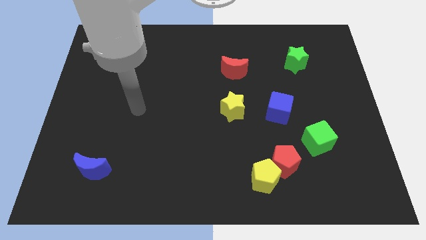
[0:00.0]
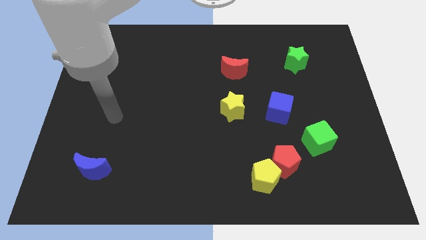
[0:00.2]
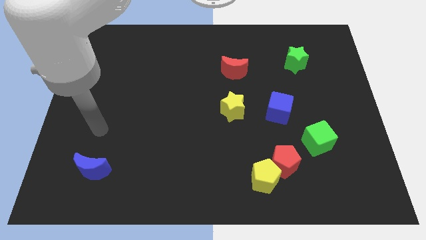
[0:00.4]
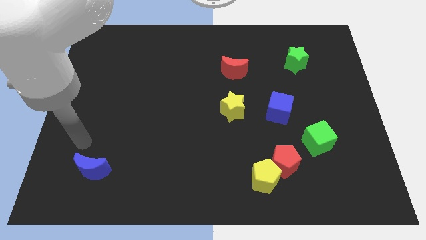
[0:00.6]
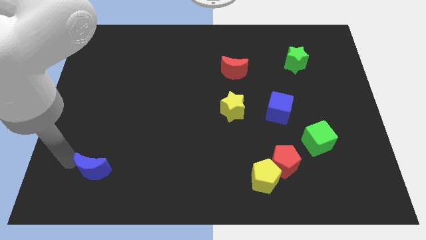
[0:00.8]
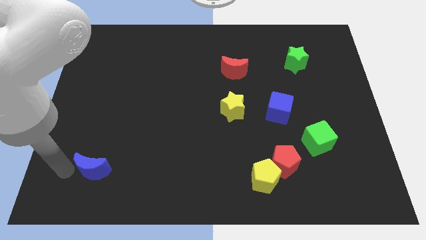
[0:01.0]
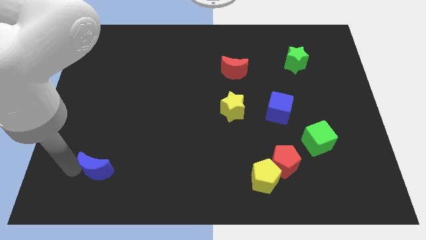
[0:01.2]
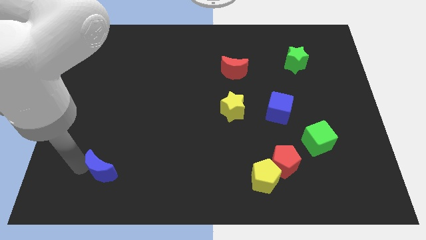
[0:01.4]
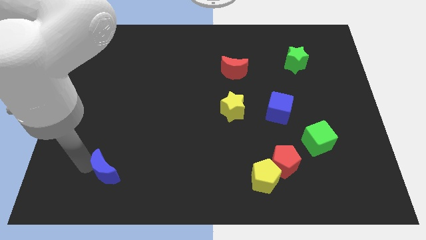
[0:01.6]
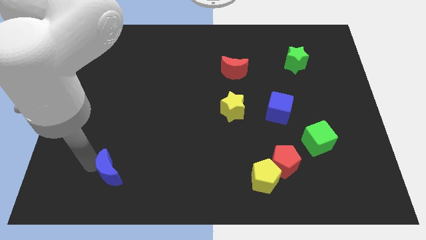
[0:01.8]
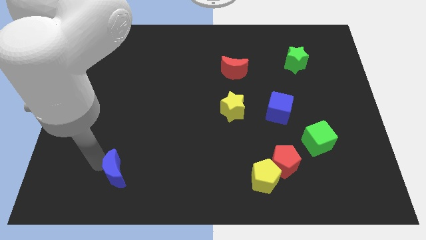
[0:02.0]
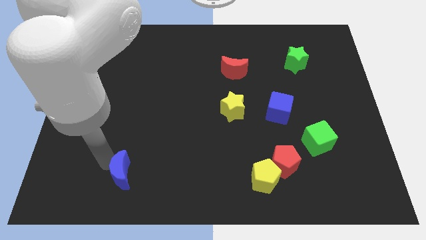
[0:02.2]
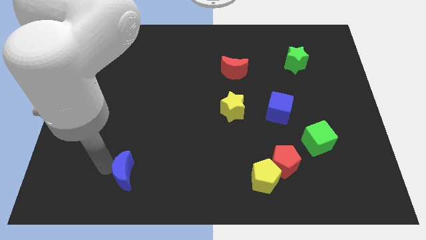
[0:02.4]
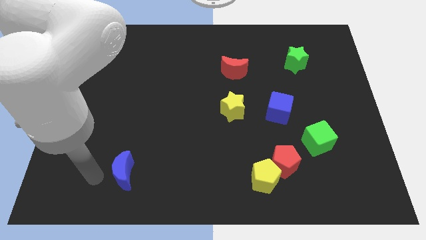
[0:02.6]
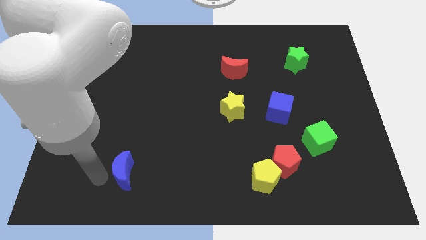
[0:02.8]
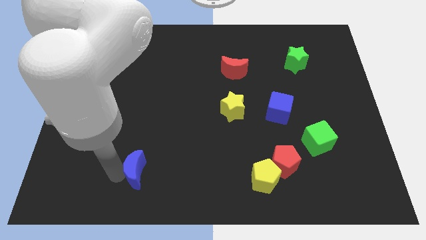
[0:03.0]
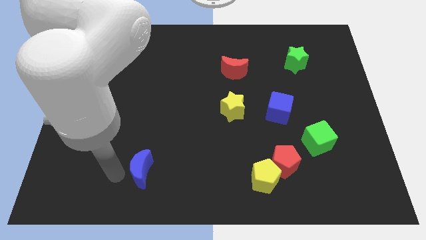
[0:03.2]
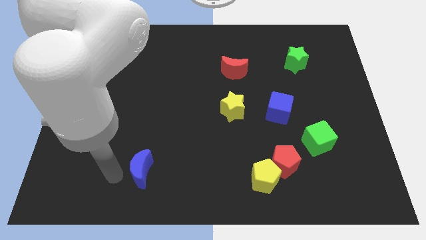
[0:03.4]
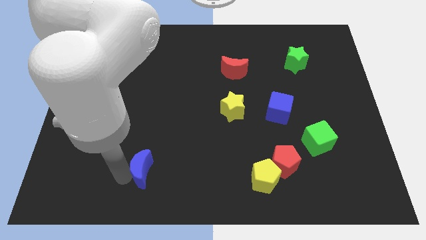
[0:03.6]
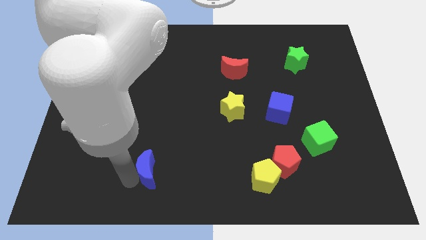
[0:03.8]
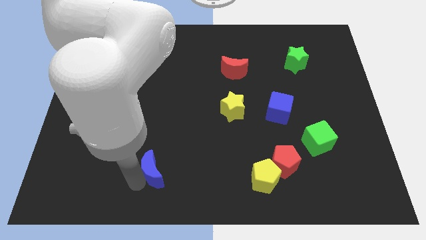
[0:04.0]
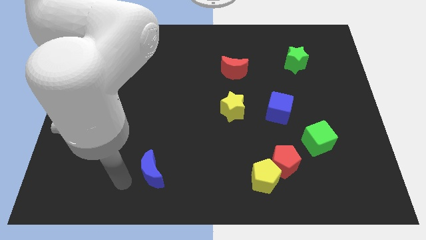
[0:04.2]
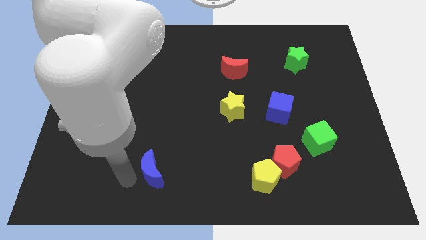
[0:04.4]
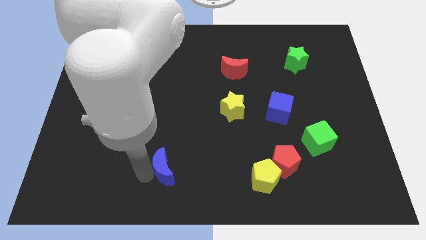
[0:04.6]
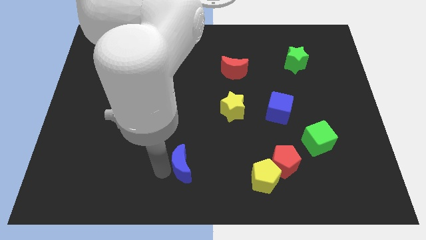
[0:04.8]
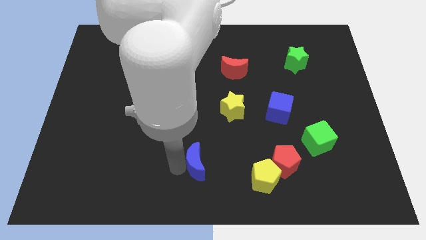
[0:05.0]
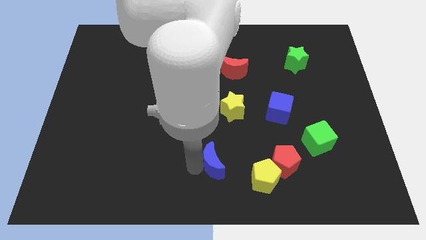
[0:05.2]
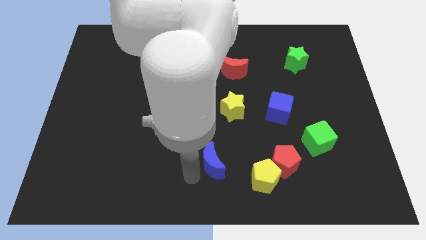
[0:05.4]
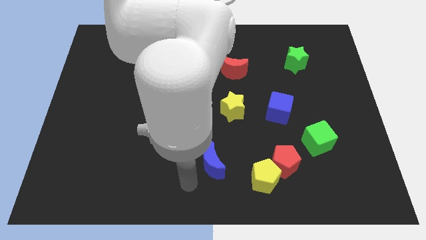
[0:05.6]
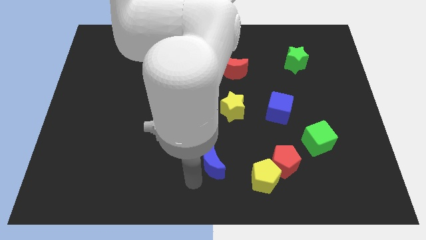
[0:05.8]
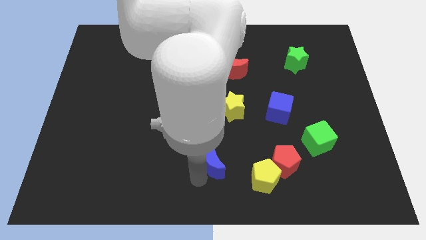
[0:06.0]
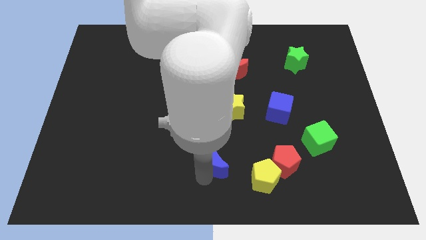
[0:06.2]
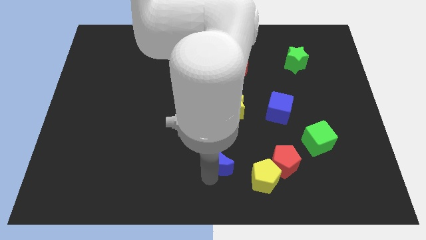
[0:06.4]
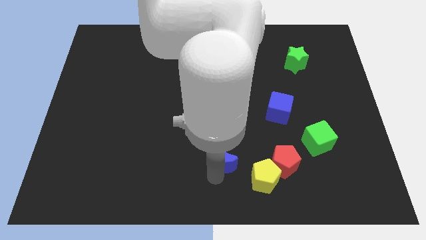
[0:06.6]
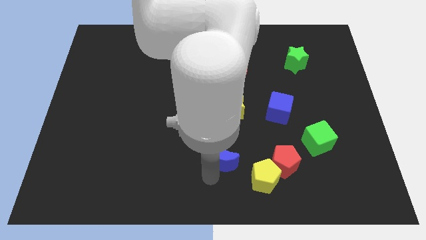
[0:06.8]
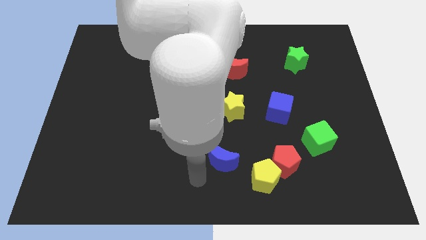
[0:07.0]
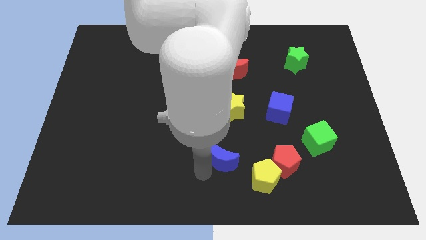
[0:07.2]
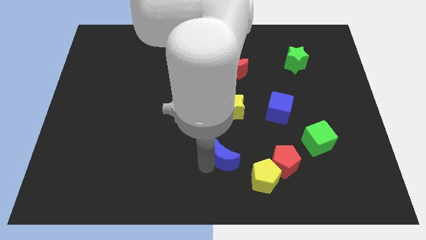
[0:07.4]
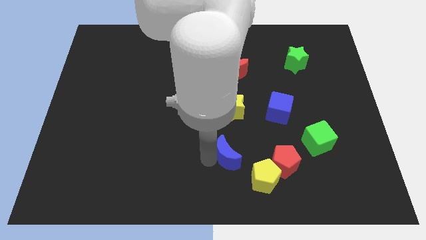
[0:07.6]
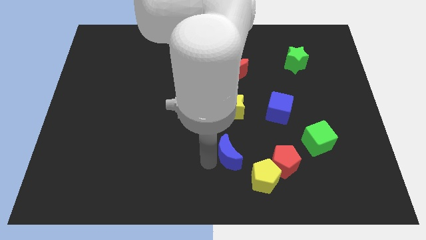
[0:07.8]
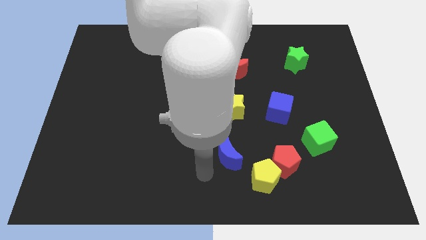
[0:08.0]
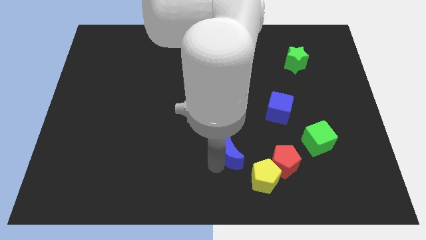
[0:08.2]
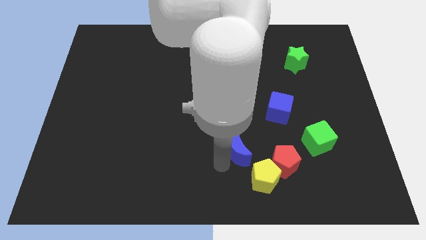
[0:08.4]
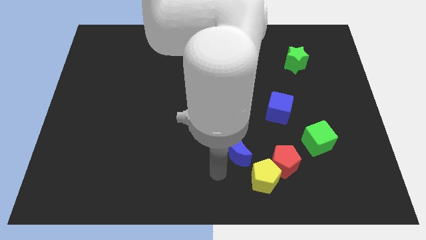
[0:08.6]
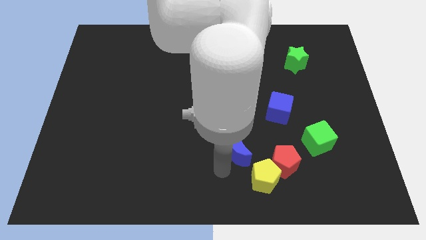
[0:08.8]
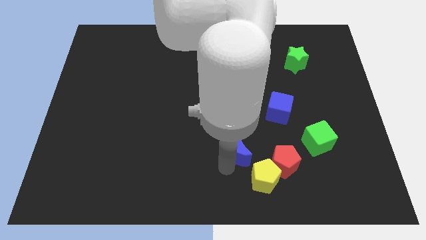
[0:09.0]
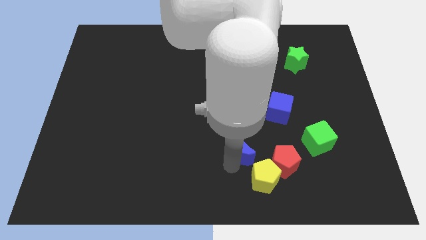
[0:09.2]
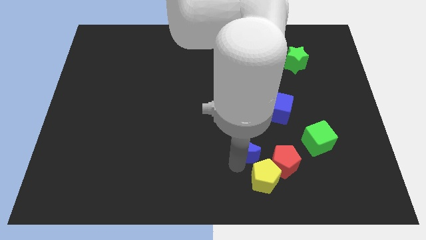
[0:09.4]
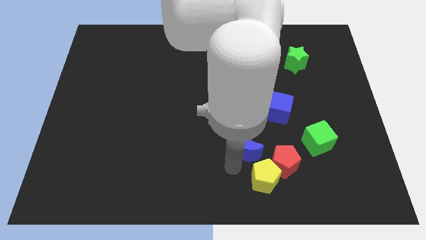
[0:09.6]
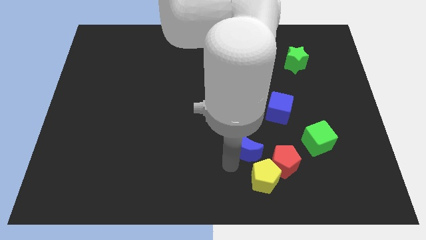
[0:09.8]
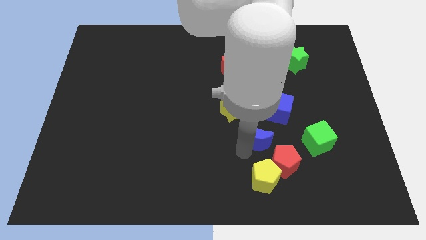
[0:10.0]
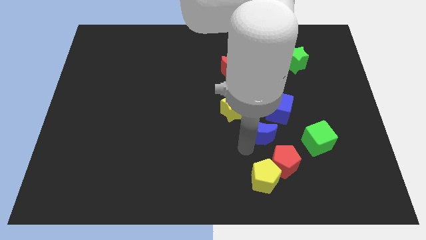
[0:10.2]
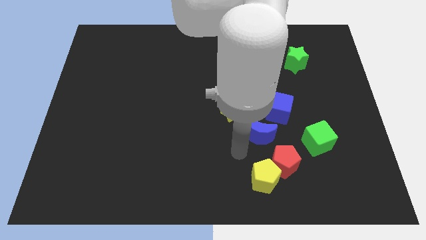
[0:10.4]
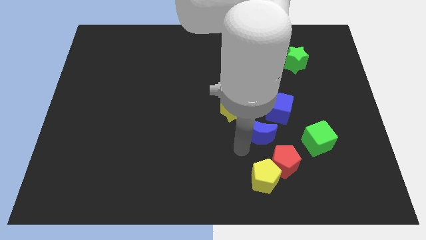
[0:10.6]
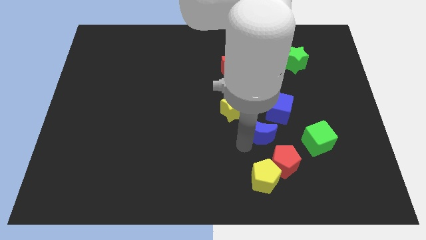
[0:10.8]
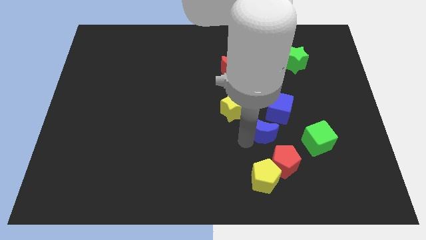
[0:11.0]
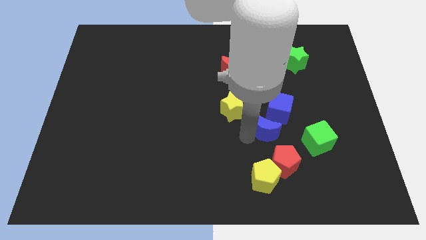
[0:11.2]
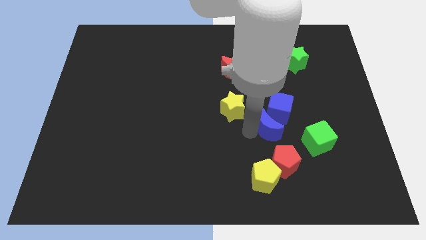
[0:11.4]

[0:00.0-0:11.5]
move the blue moon close to the blue cube

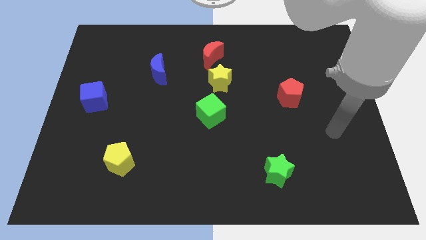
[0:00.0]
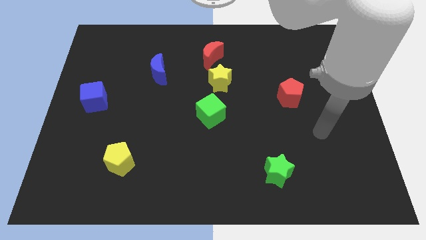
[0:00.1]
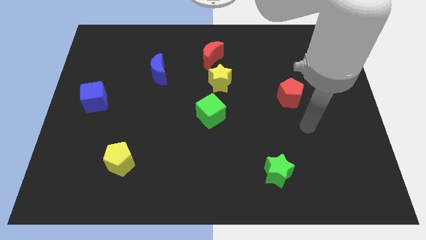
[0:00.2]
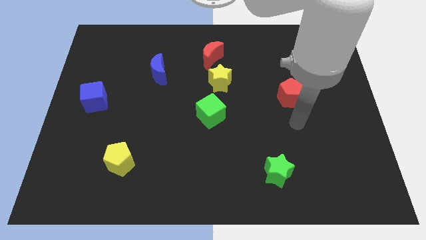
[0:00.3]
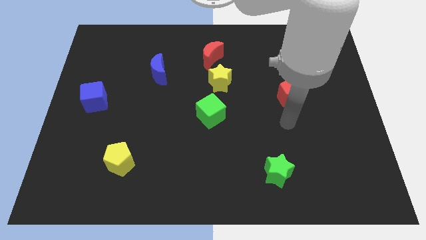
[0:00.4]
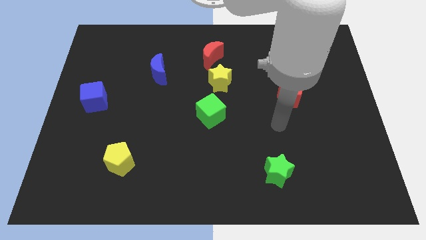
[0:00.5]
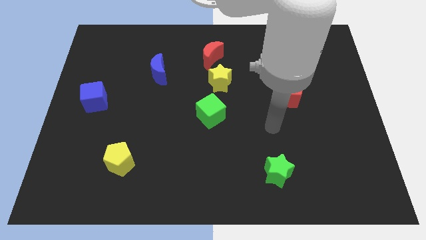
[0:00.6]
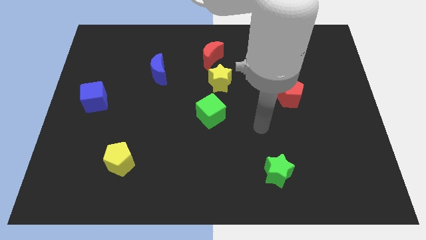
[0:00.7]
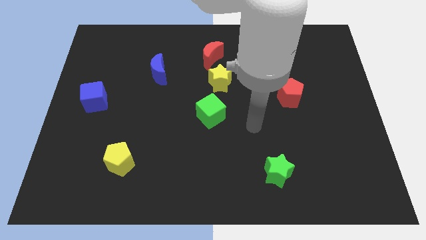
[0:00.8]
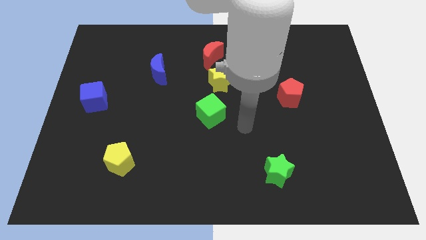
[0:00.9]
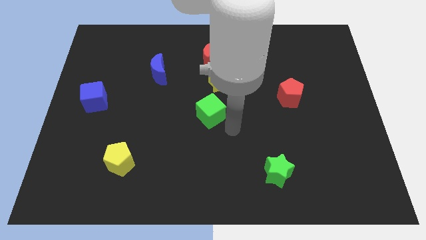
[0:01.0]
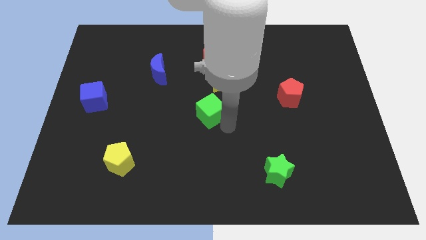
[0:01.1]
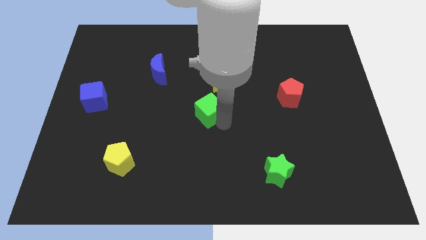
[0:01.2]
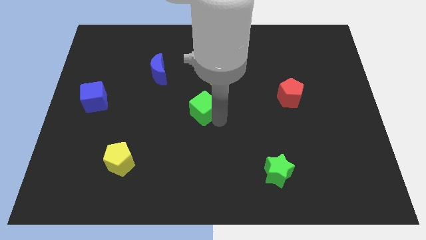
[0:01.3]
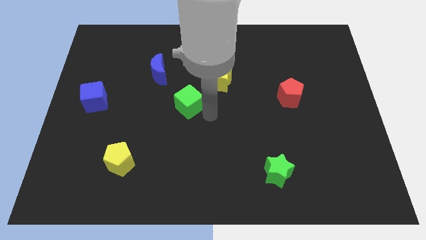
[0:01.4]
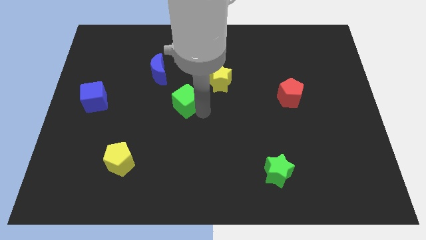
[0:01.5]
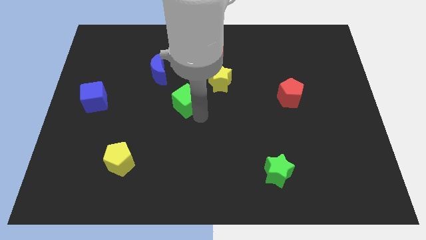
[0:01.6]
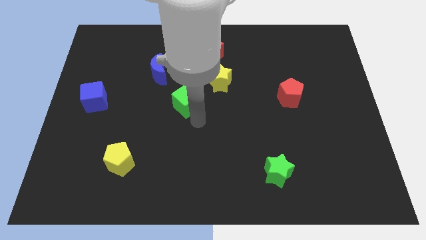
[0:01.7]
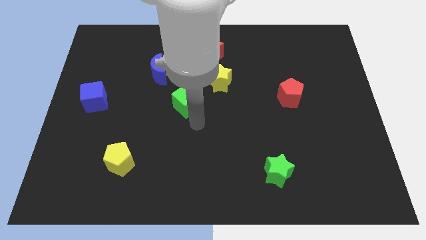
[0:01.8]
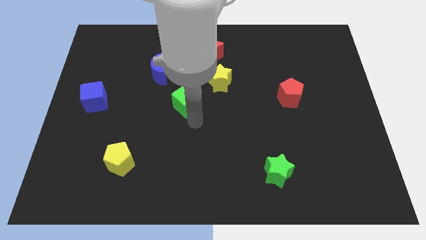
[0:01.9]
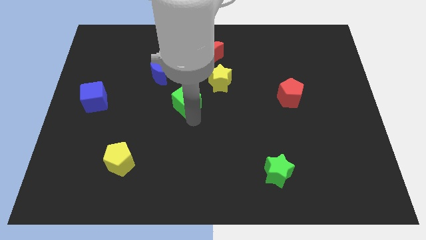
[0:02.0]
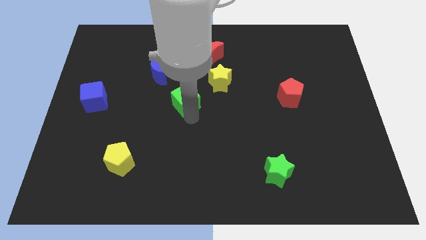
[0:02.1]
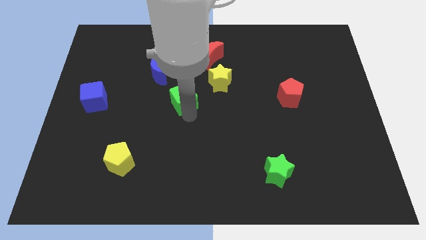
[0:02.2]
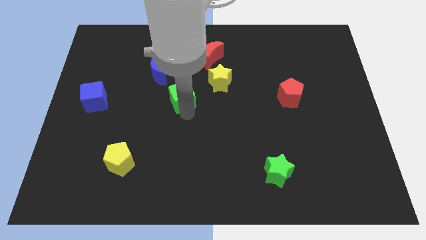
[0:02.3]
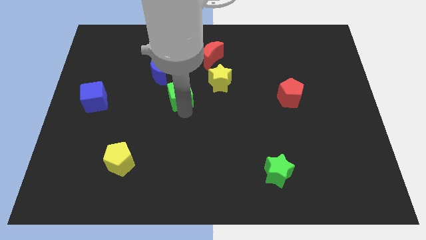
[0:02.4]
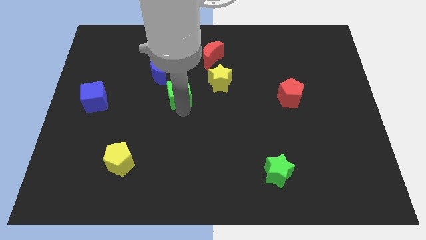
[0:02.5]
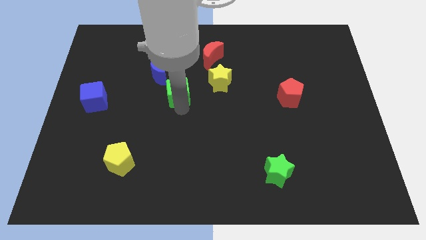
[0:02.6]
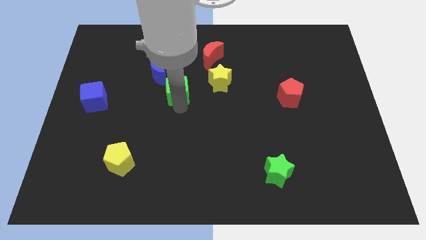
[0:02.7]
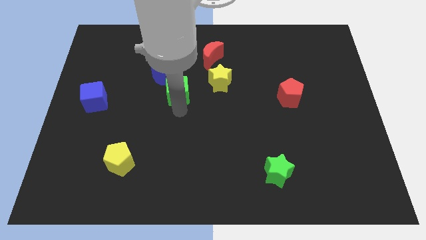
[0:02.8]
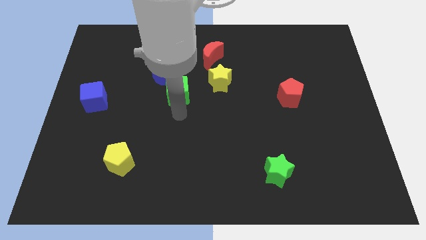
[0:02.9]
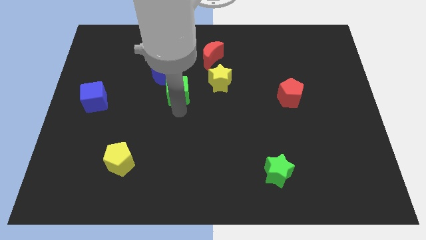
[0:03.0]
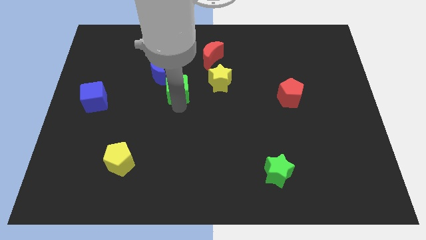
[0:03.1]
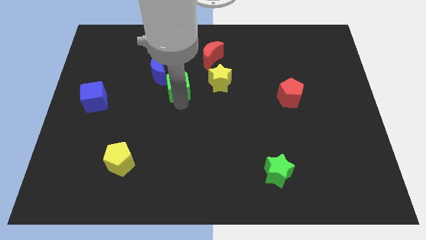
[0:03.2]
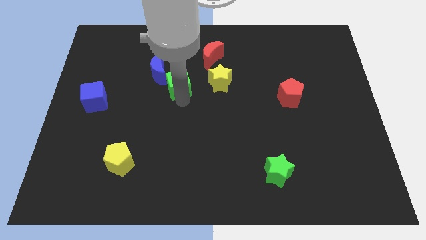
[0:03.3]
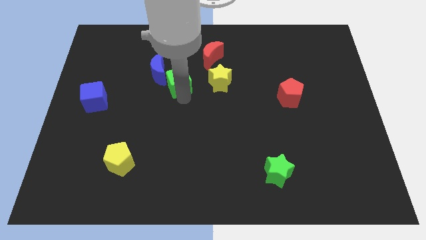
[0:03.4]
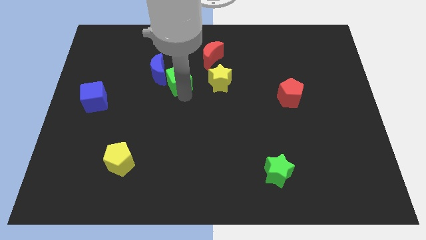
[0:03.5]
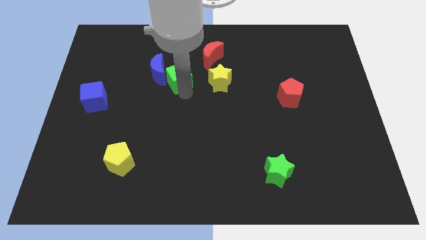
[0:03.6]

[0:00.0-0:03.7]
push the green cube to the blue moon
